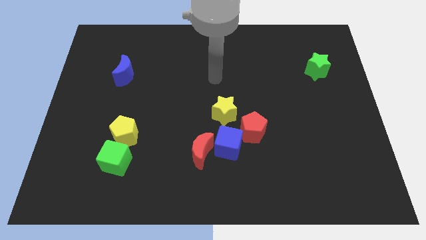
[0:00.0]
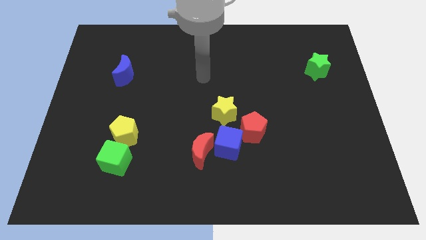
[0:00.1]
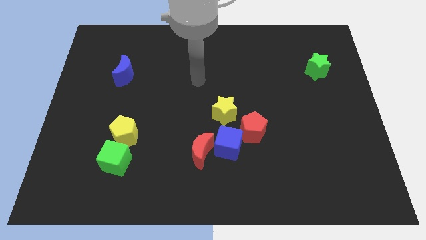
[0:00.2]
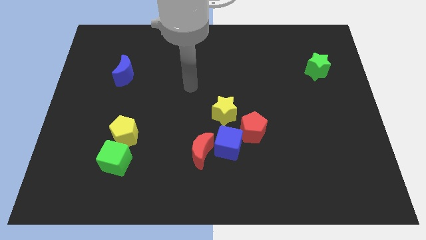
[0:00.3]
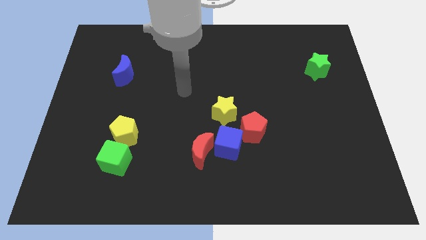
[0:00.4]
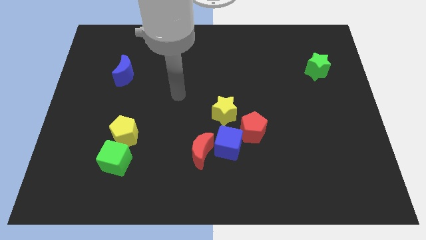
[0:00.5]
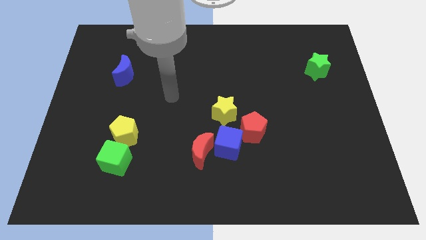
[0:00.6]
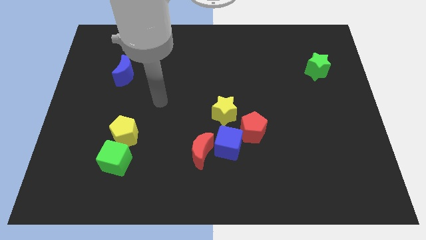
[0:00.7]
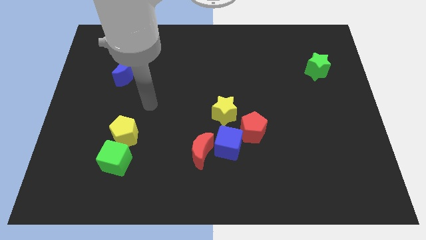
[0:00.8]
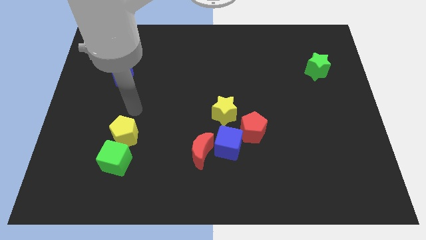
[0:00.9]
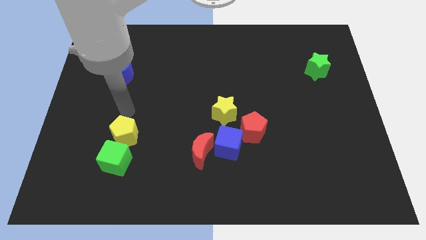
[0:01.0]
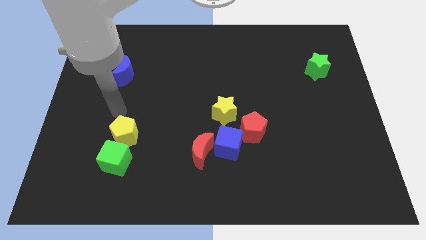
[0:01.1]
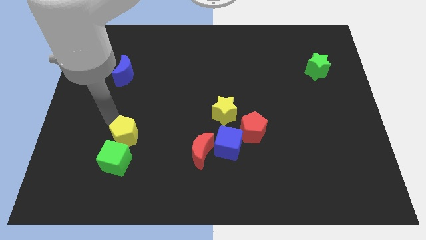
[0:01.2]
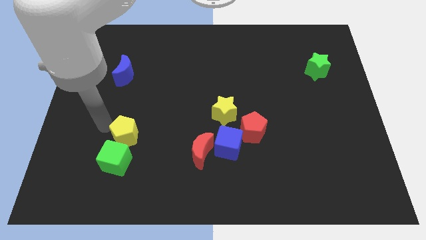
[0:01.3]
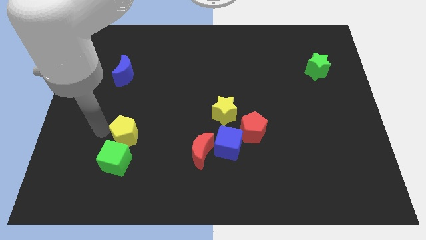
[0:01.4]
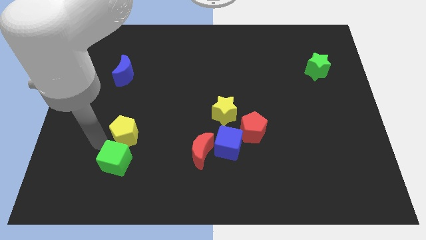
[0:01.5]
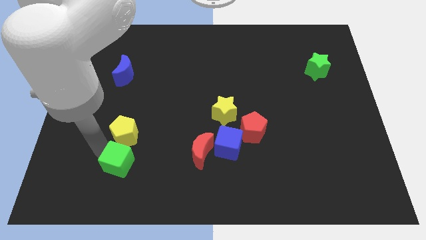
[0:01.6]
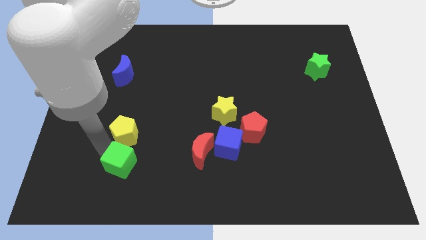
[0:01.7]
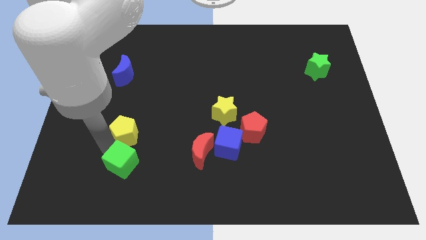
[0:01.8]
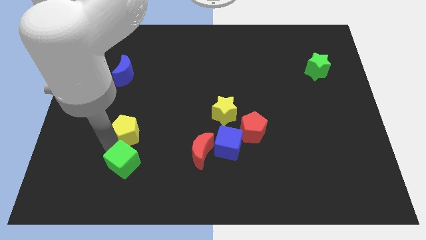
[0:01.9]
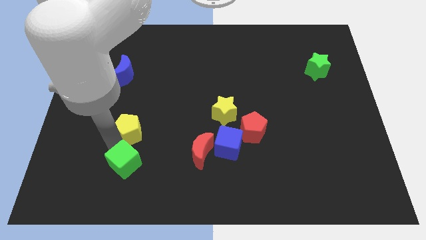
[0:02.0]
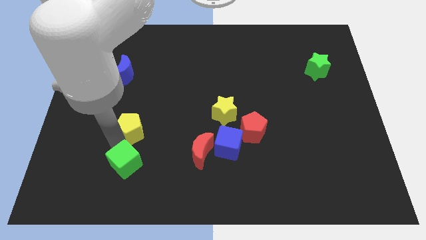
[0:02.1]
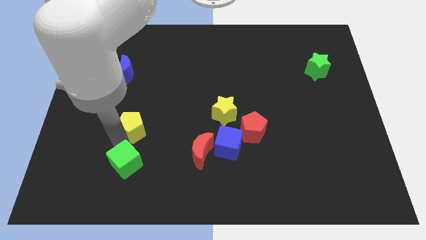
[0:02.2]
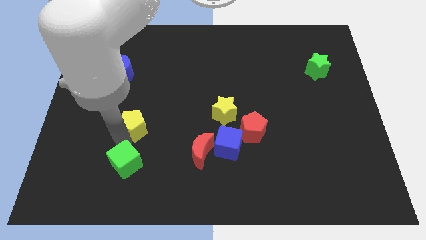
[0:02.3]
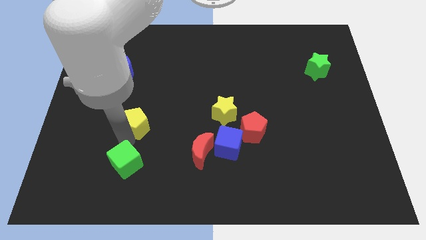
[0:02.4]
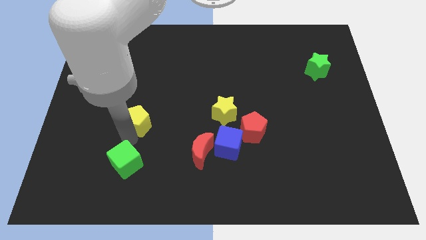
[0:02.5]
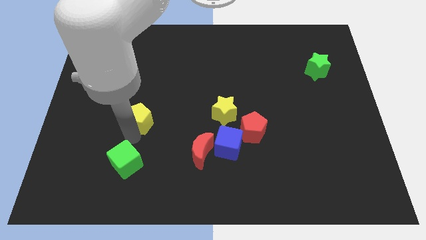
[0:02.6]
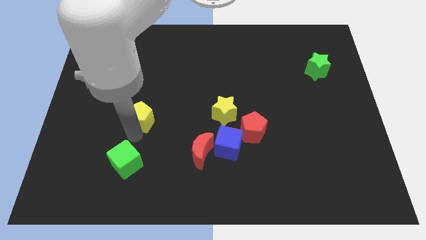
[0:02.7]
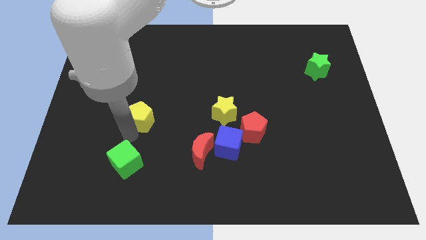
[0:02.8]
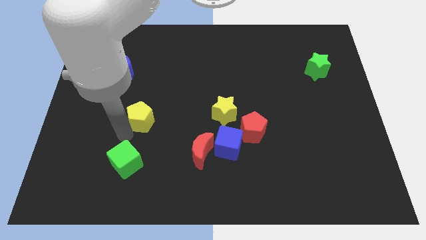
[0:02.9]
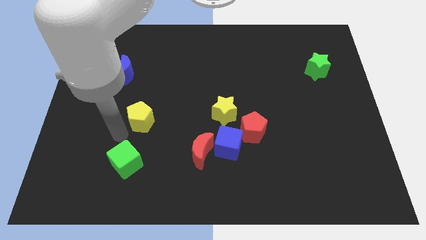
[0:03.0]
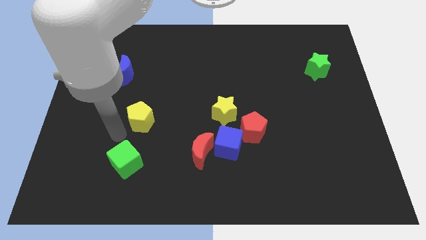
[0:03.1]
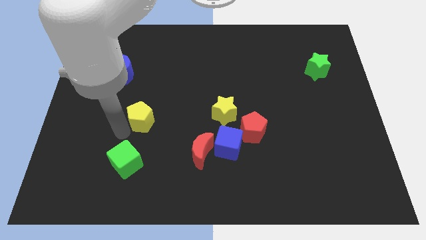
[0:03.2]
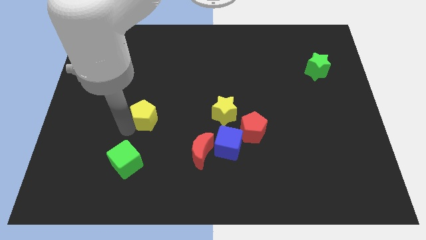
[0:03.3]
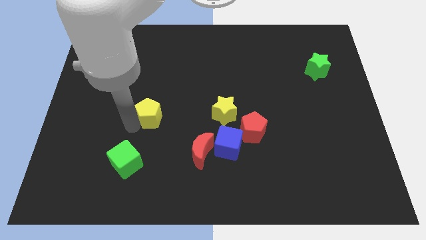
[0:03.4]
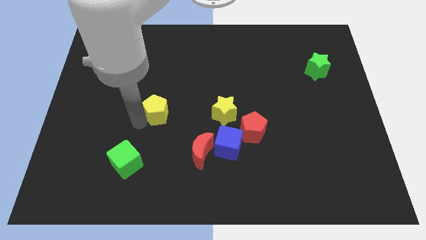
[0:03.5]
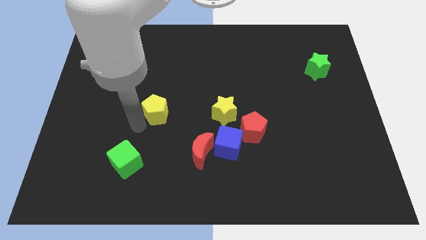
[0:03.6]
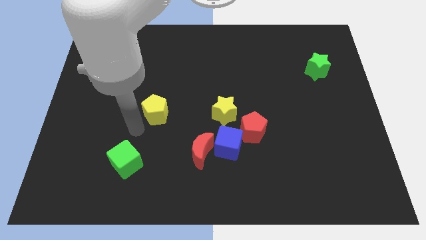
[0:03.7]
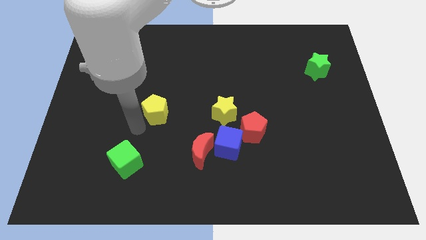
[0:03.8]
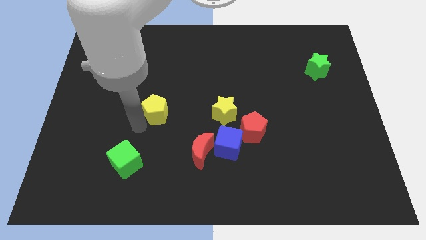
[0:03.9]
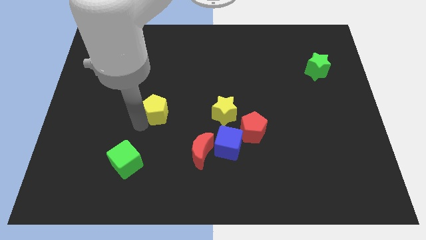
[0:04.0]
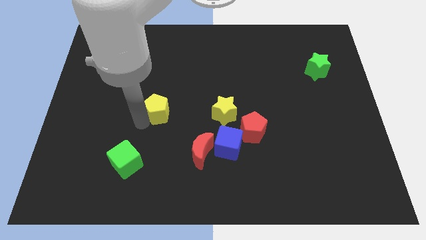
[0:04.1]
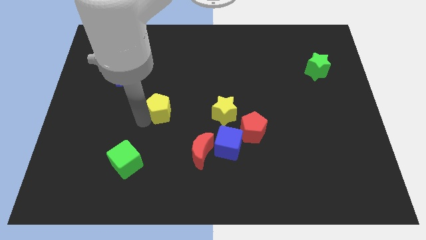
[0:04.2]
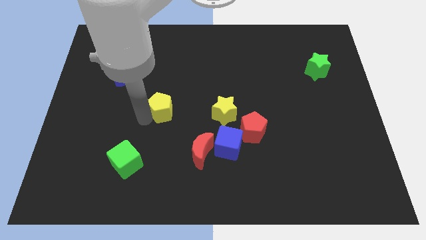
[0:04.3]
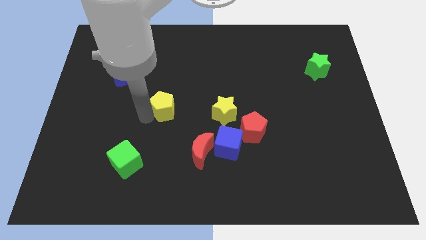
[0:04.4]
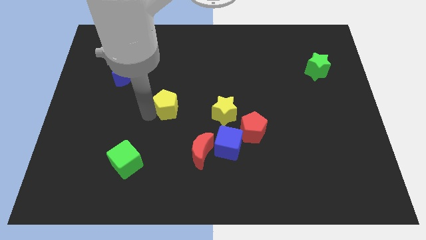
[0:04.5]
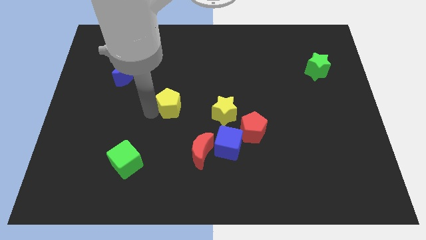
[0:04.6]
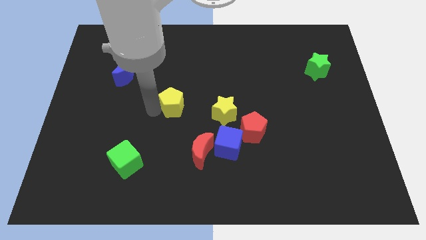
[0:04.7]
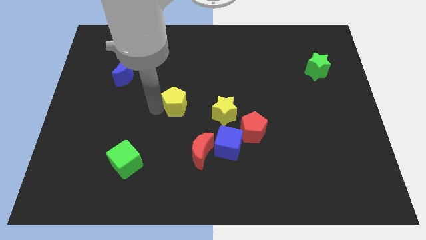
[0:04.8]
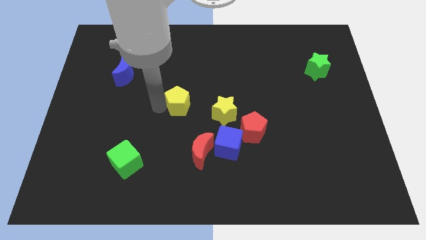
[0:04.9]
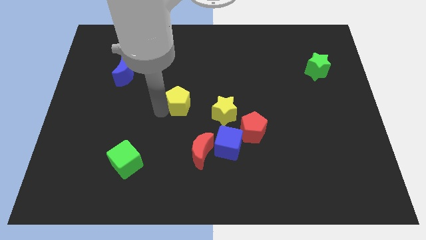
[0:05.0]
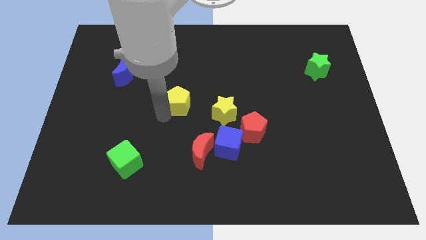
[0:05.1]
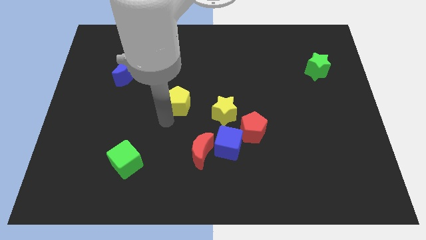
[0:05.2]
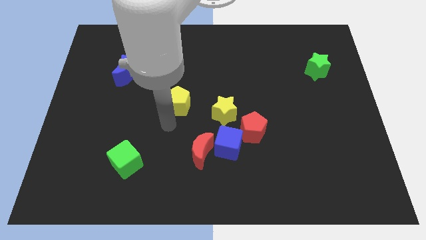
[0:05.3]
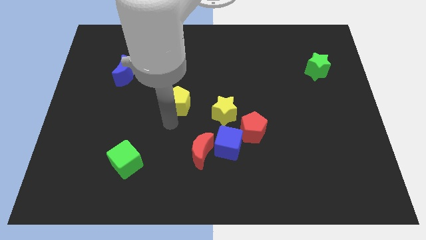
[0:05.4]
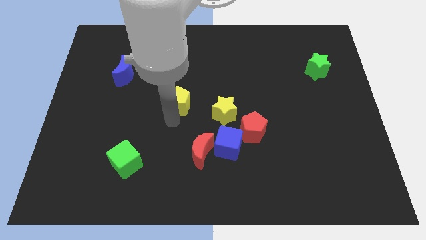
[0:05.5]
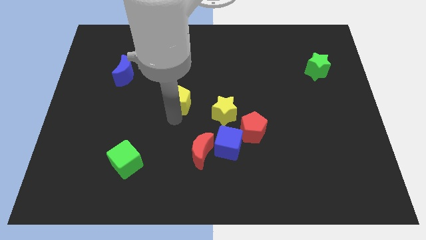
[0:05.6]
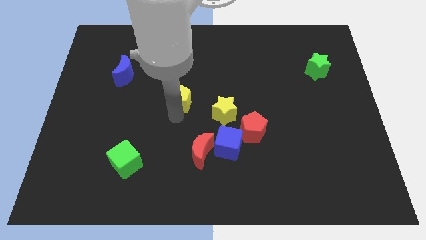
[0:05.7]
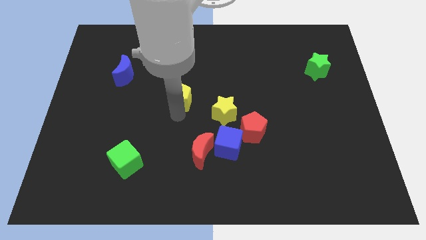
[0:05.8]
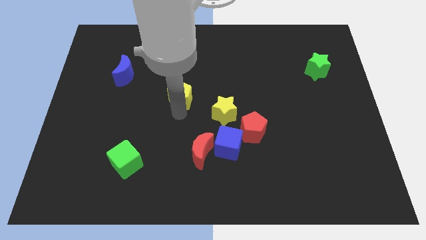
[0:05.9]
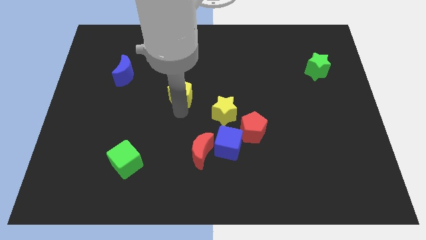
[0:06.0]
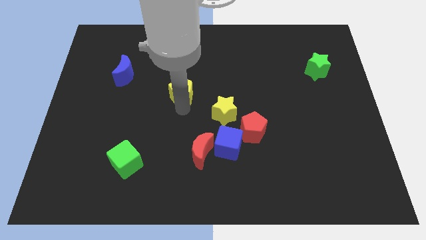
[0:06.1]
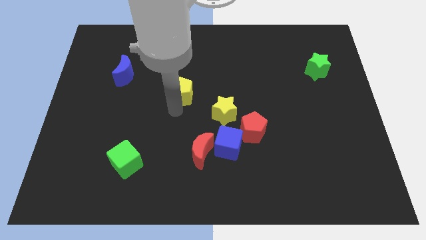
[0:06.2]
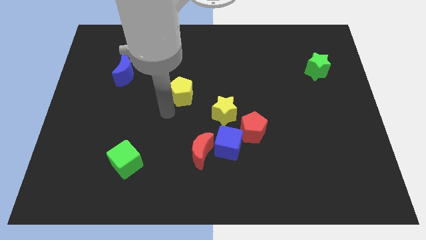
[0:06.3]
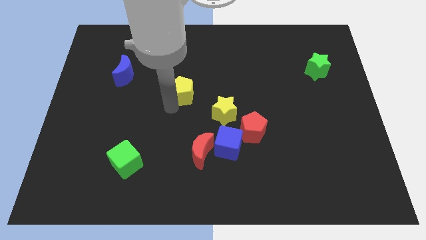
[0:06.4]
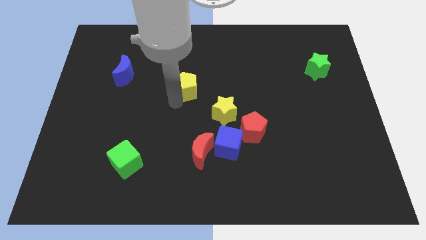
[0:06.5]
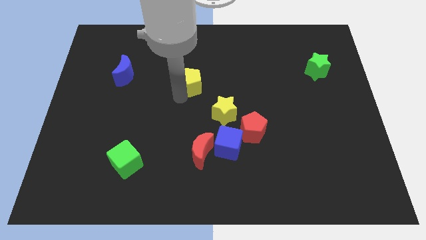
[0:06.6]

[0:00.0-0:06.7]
move the yellow pentagon diagonally up and right

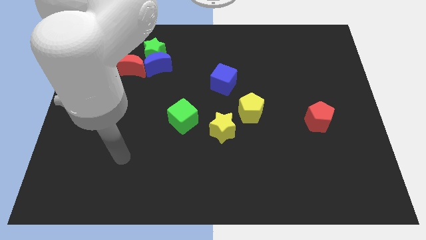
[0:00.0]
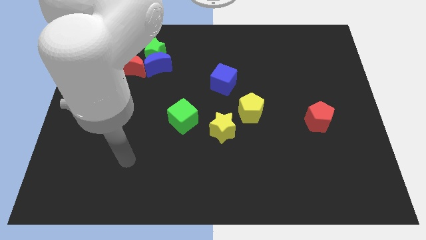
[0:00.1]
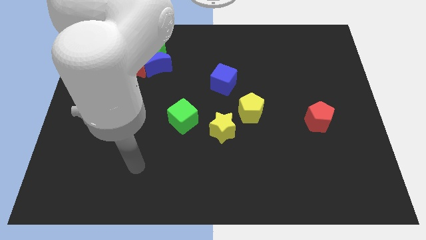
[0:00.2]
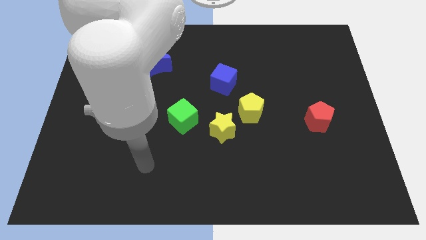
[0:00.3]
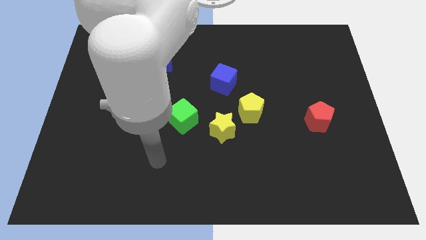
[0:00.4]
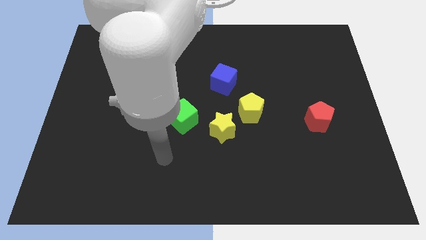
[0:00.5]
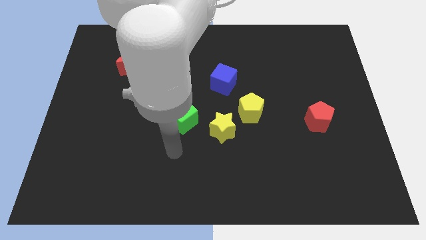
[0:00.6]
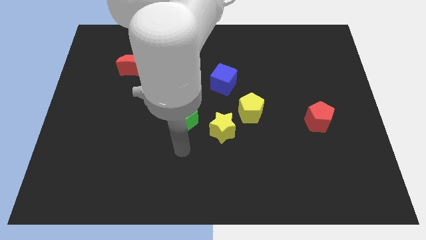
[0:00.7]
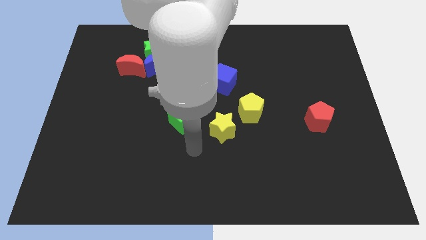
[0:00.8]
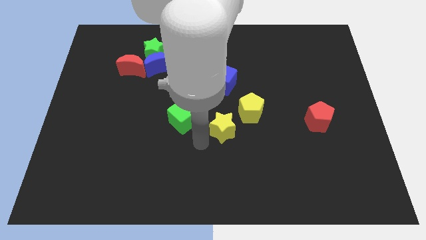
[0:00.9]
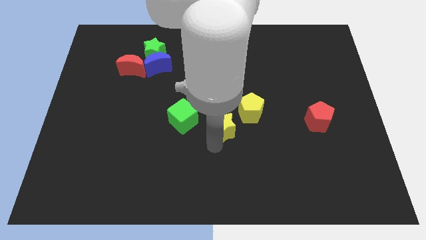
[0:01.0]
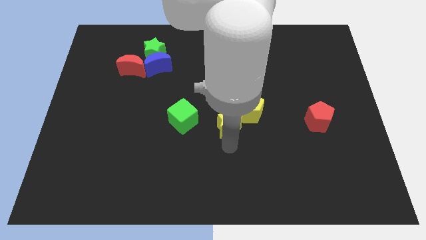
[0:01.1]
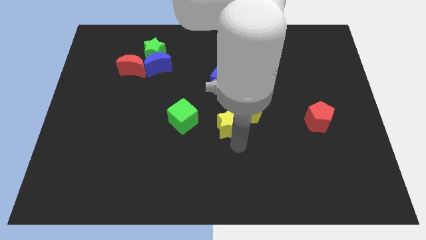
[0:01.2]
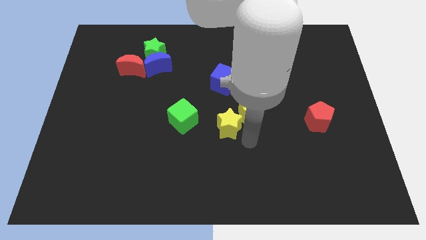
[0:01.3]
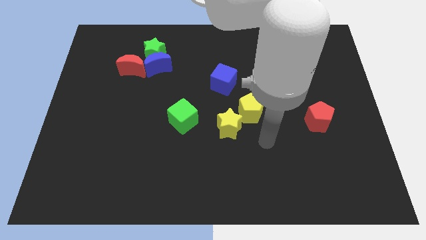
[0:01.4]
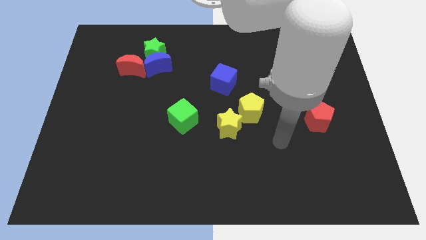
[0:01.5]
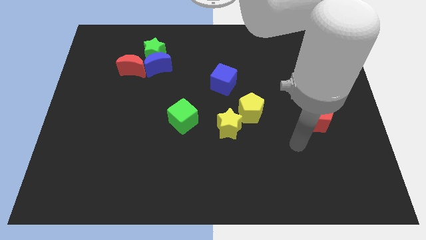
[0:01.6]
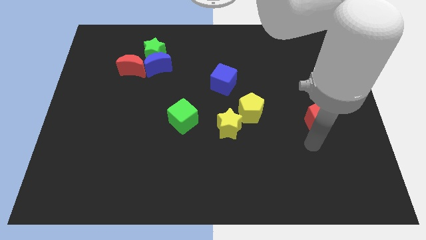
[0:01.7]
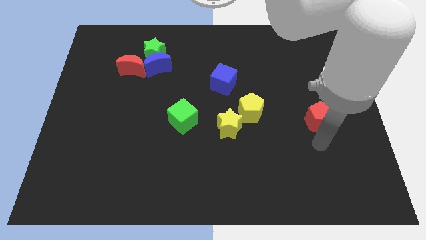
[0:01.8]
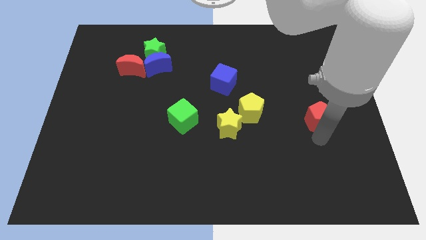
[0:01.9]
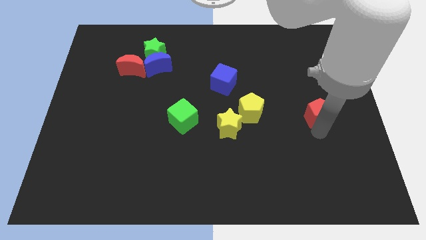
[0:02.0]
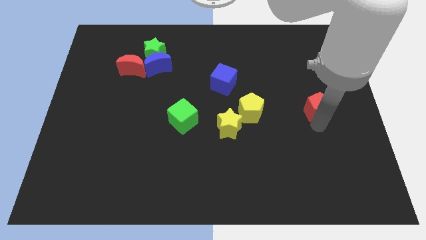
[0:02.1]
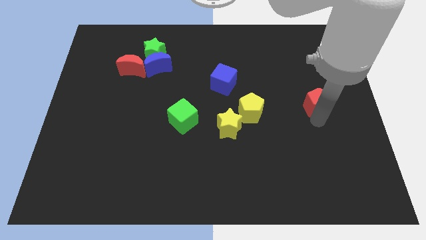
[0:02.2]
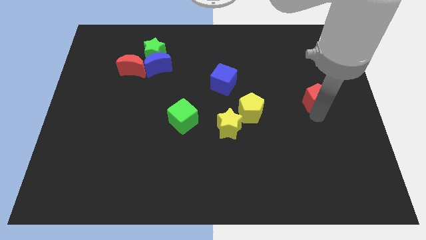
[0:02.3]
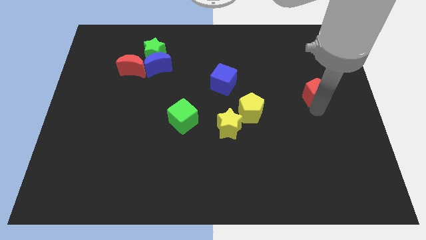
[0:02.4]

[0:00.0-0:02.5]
push the red pentagon upwards a little bit
